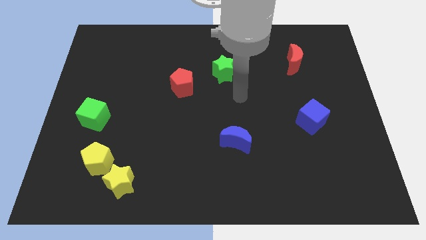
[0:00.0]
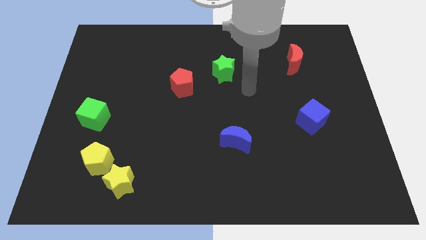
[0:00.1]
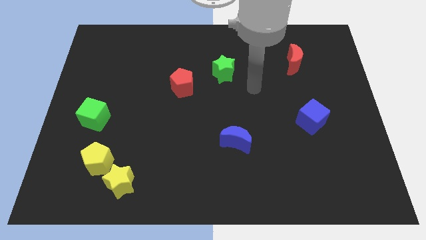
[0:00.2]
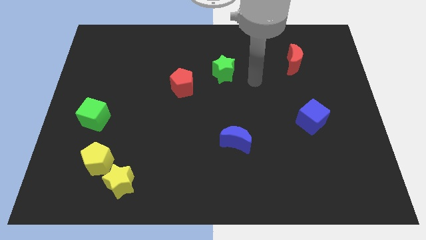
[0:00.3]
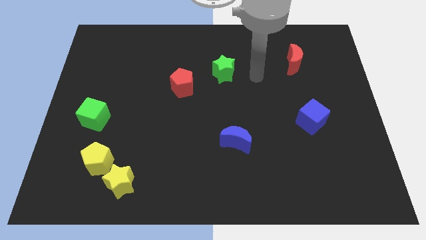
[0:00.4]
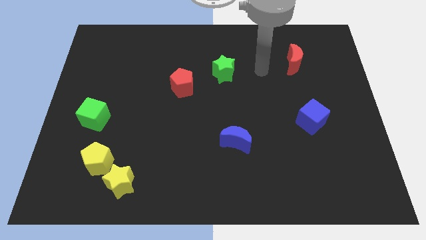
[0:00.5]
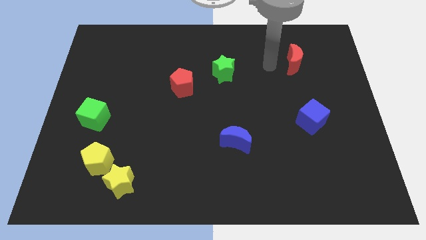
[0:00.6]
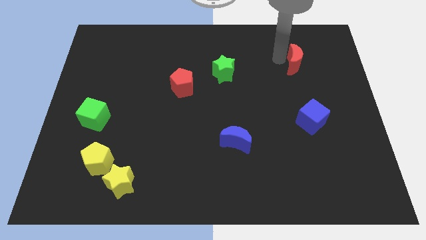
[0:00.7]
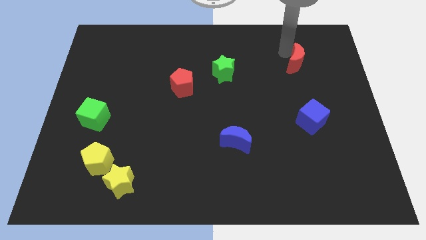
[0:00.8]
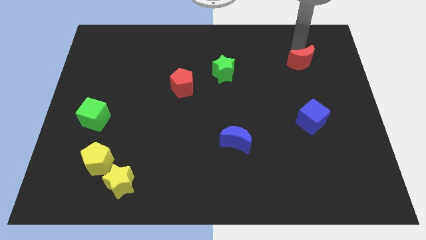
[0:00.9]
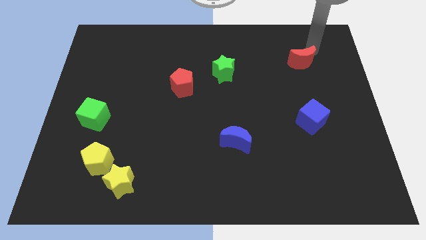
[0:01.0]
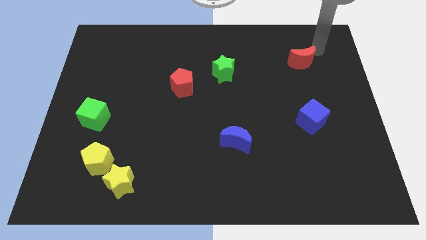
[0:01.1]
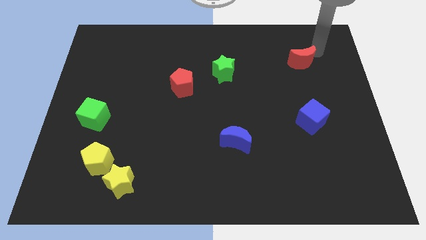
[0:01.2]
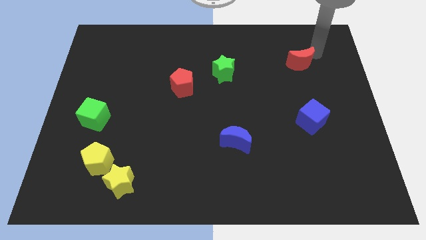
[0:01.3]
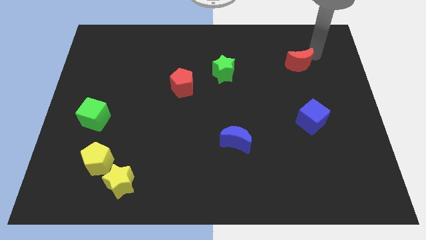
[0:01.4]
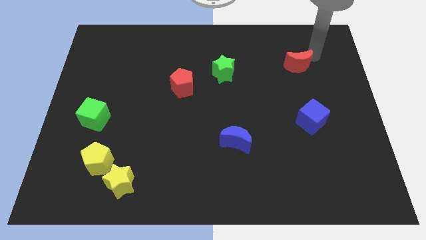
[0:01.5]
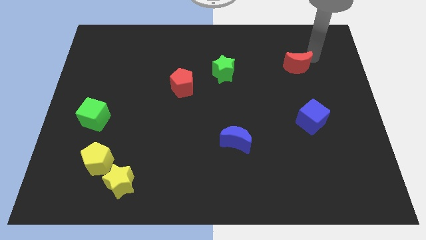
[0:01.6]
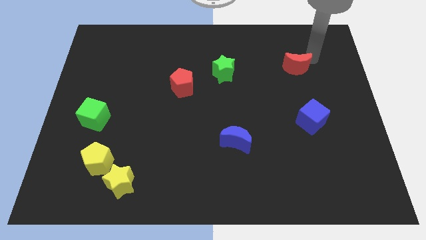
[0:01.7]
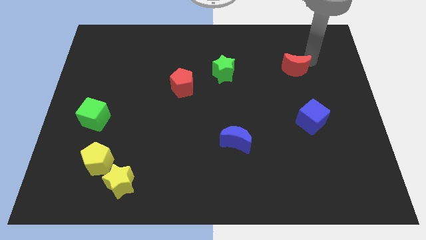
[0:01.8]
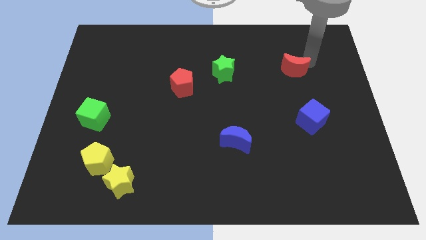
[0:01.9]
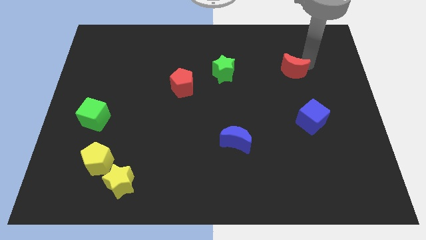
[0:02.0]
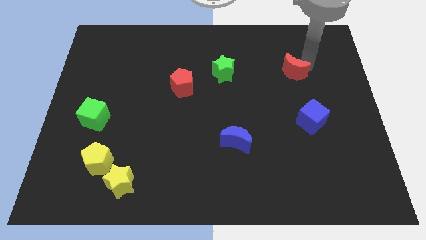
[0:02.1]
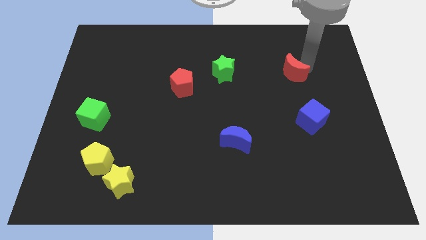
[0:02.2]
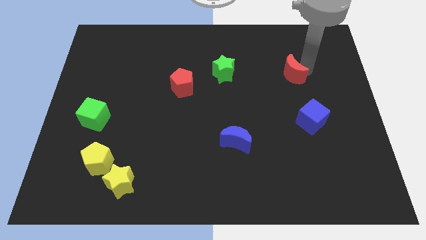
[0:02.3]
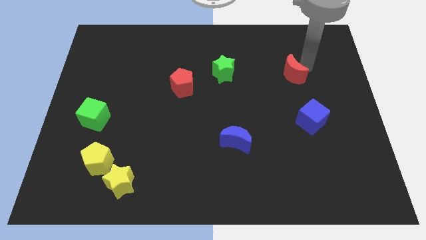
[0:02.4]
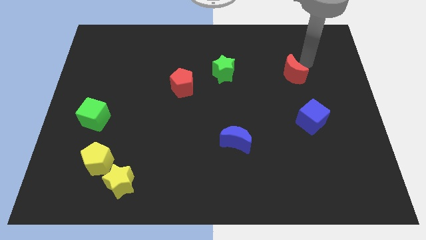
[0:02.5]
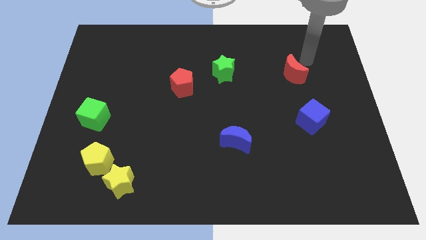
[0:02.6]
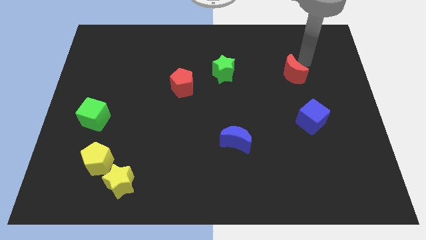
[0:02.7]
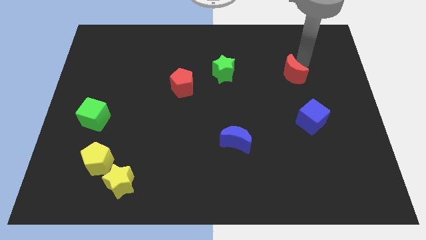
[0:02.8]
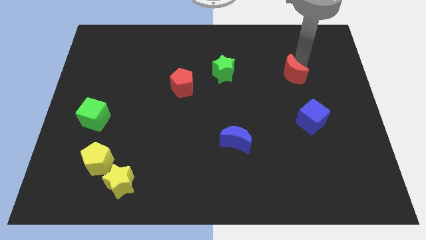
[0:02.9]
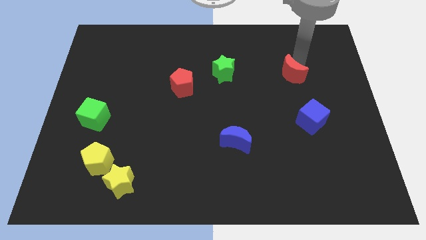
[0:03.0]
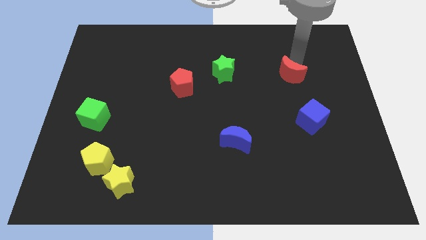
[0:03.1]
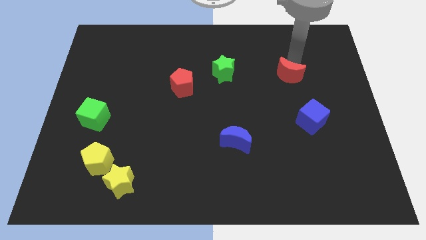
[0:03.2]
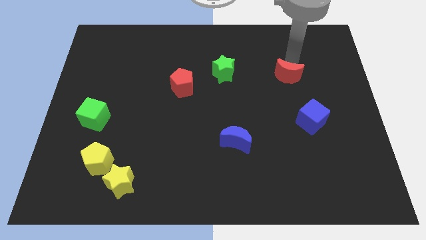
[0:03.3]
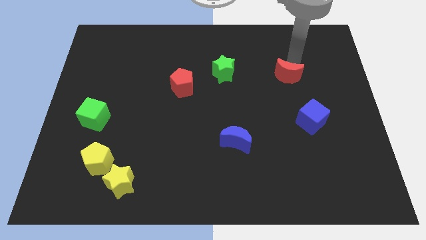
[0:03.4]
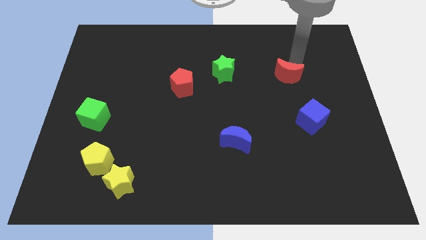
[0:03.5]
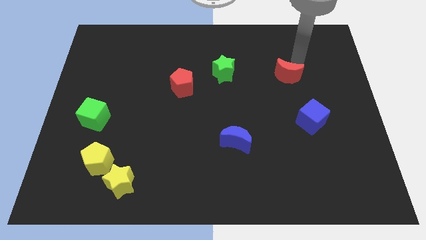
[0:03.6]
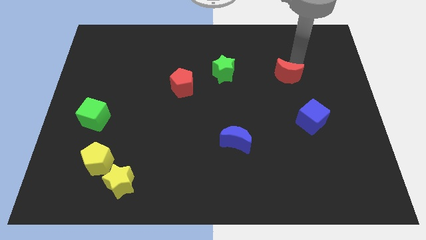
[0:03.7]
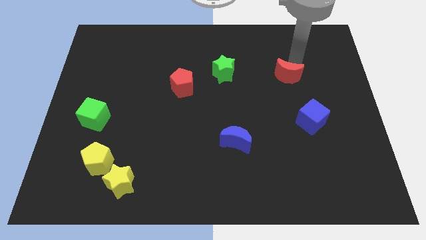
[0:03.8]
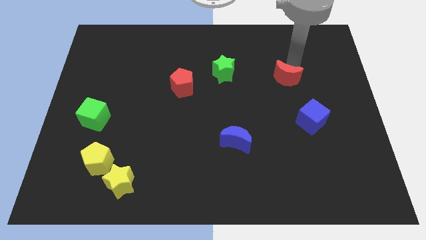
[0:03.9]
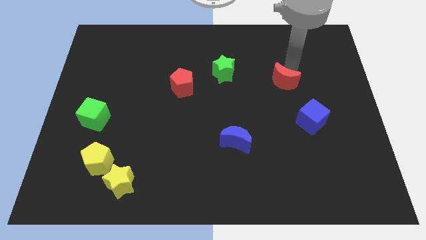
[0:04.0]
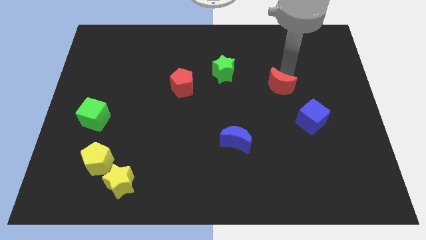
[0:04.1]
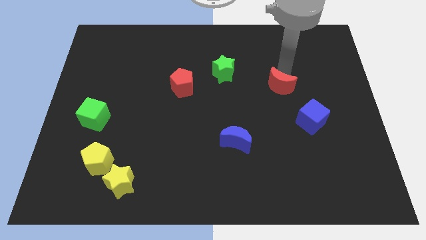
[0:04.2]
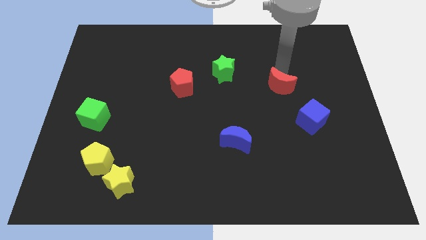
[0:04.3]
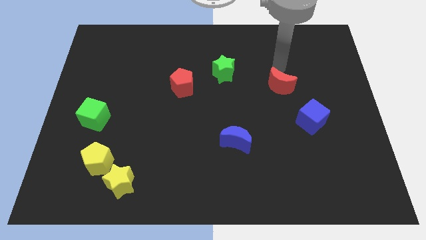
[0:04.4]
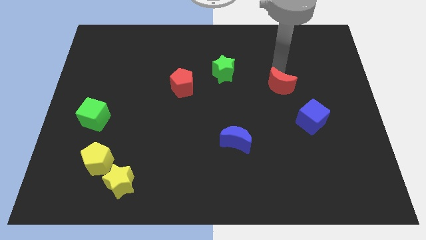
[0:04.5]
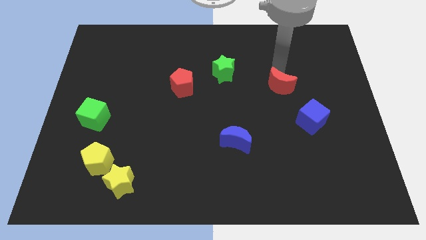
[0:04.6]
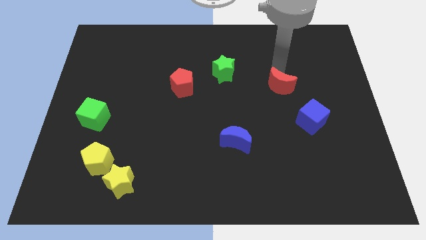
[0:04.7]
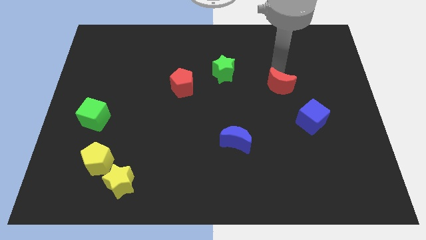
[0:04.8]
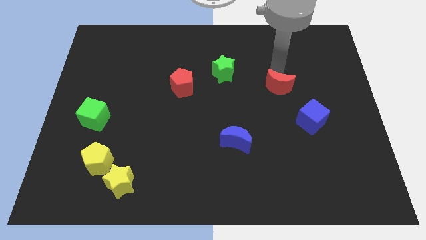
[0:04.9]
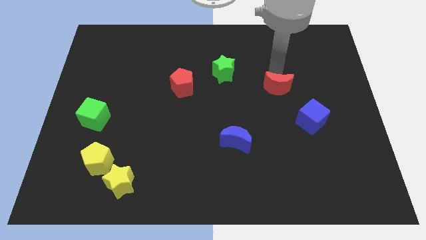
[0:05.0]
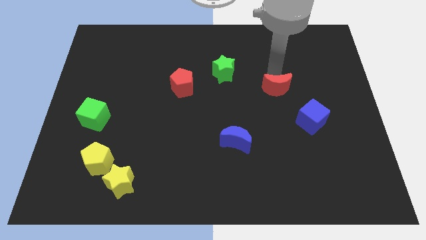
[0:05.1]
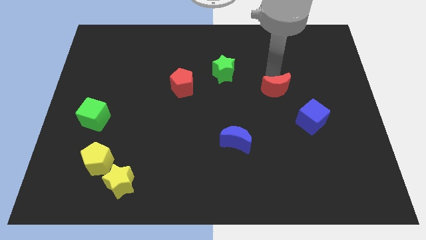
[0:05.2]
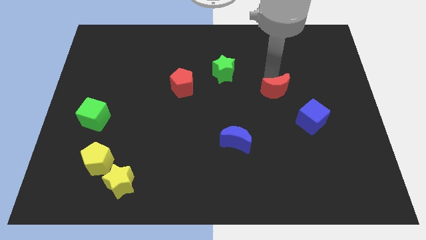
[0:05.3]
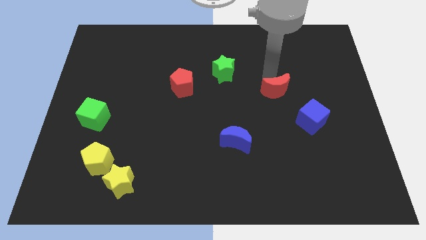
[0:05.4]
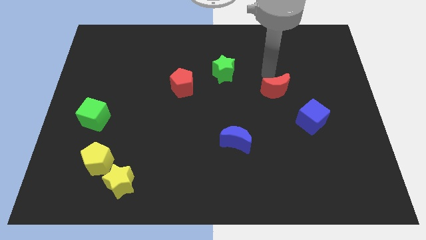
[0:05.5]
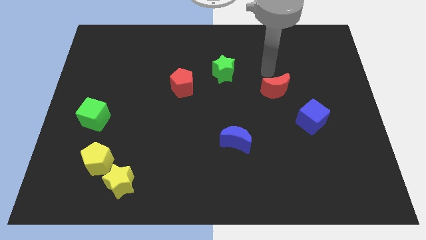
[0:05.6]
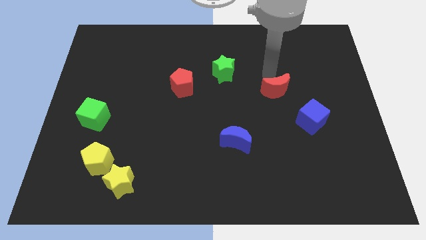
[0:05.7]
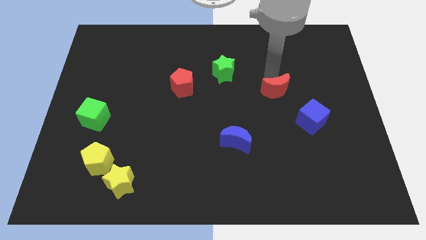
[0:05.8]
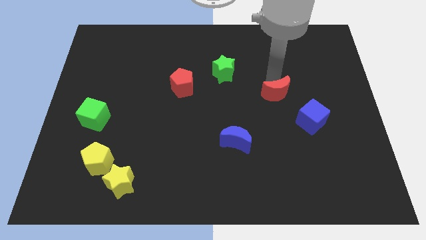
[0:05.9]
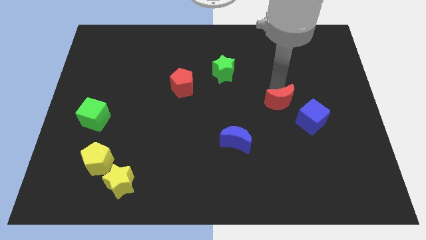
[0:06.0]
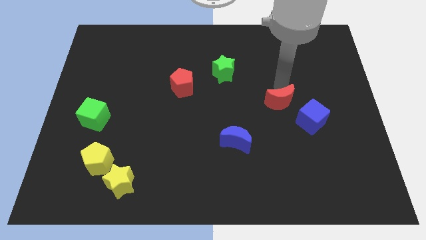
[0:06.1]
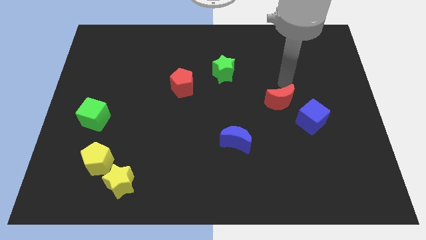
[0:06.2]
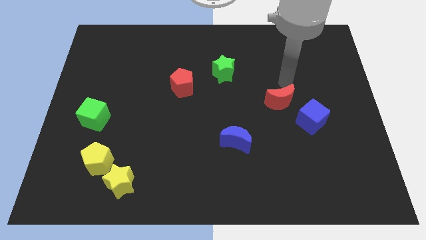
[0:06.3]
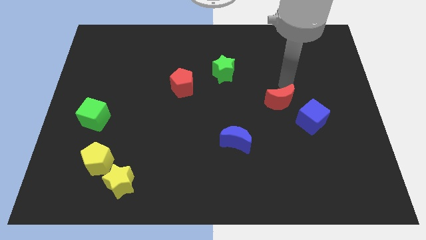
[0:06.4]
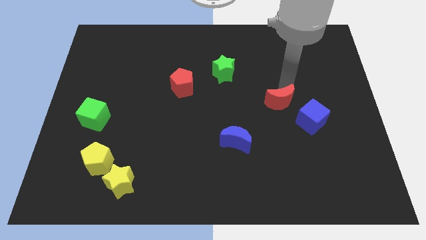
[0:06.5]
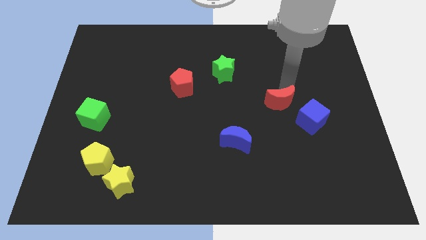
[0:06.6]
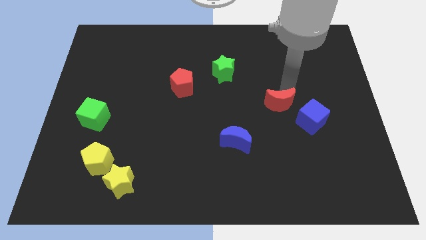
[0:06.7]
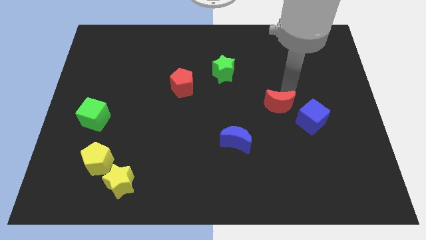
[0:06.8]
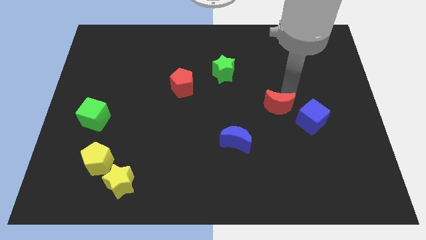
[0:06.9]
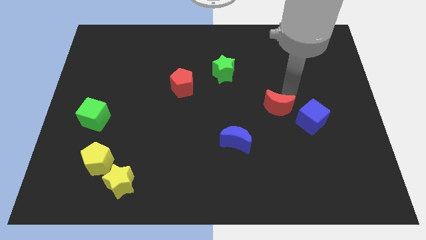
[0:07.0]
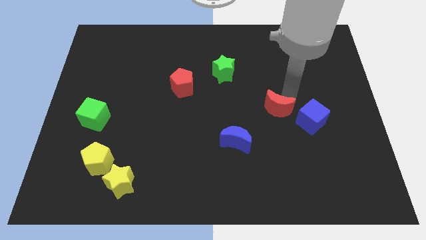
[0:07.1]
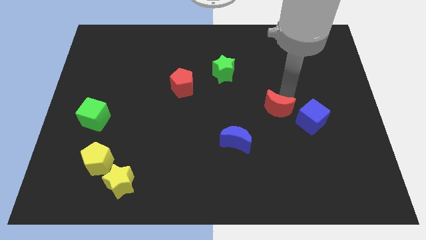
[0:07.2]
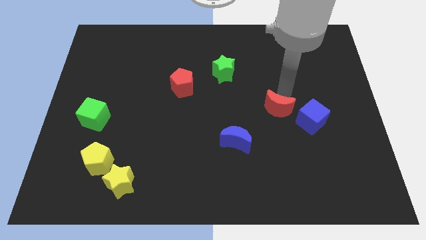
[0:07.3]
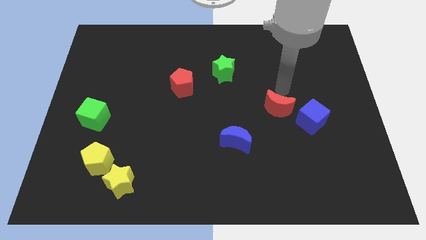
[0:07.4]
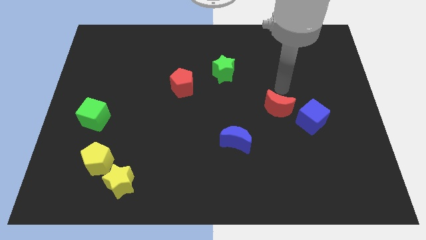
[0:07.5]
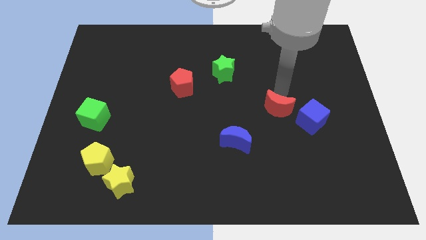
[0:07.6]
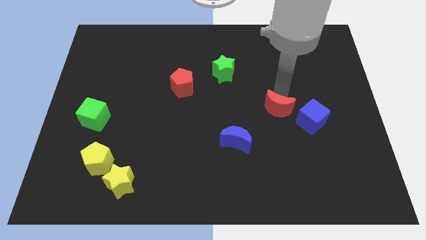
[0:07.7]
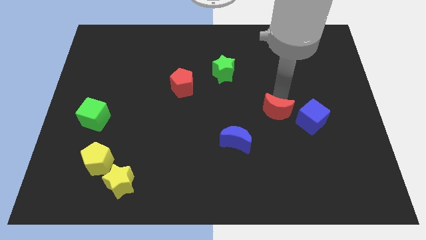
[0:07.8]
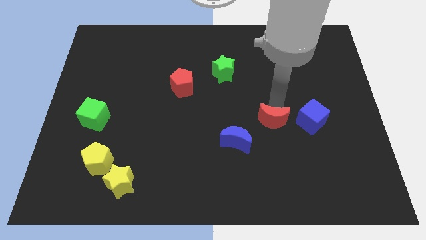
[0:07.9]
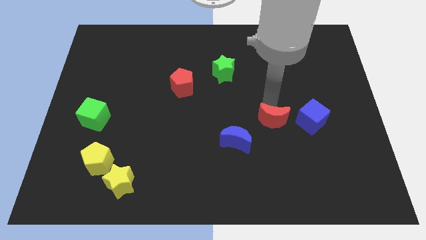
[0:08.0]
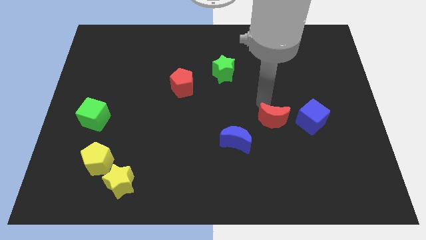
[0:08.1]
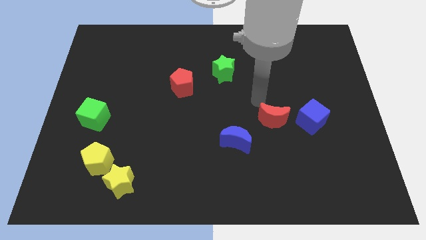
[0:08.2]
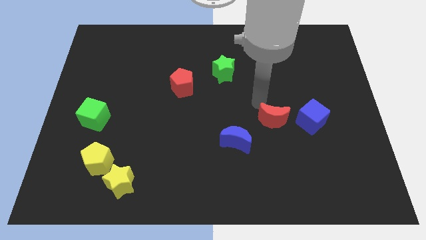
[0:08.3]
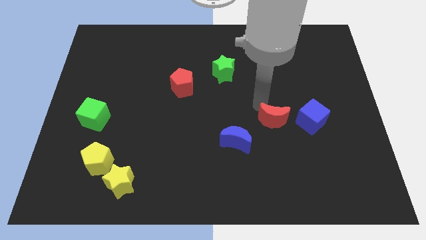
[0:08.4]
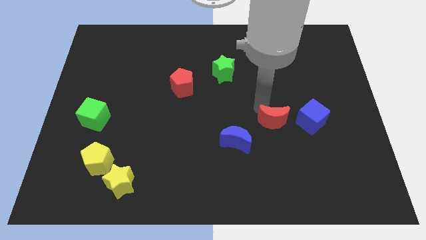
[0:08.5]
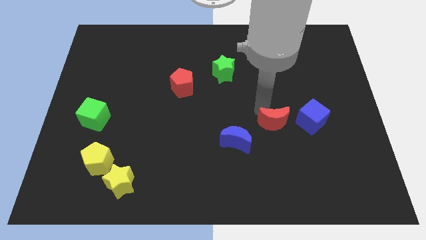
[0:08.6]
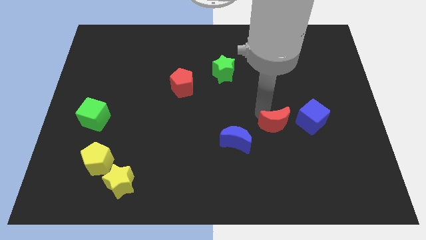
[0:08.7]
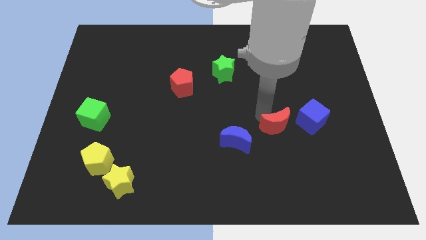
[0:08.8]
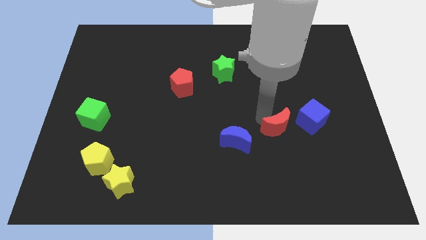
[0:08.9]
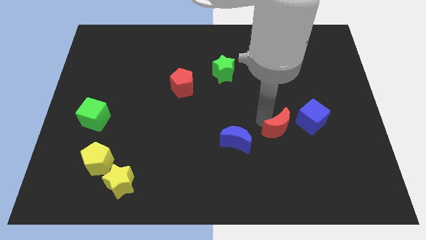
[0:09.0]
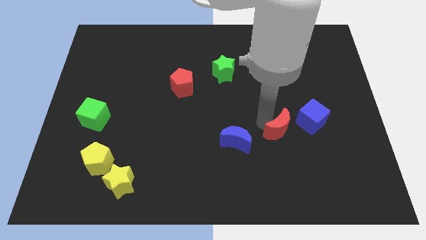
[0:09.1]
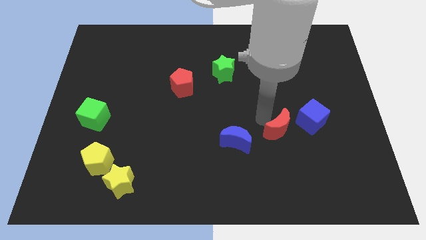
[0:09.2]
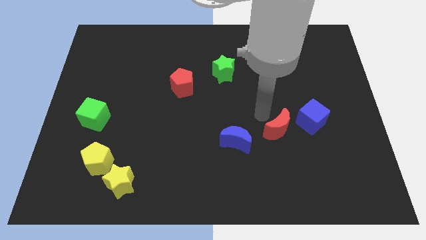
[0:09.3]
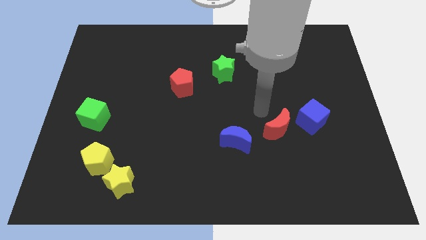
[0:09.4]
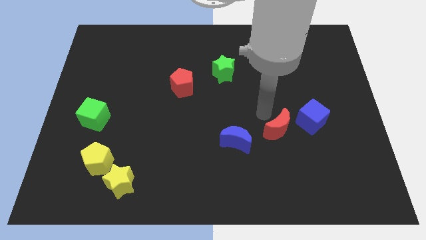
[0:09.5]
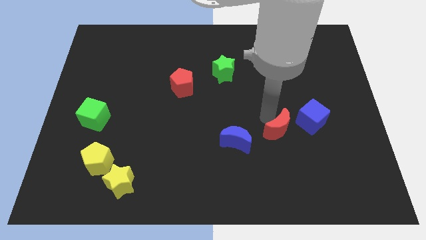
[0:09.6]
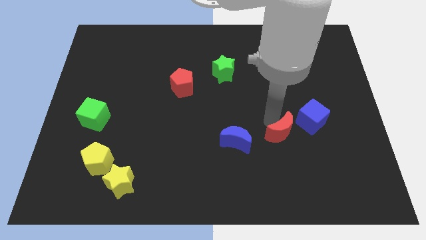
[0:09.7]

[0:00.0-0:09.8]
slide the red moon downwards
